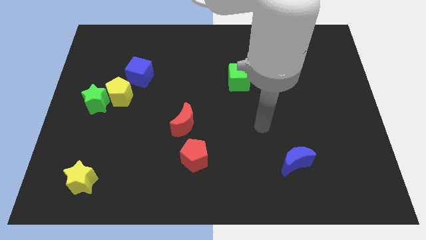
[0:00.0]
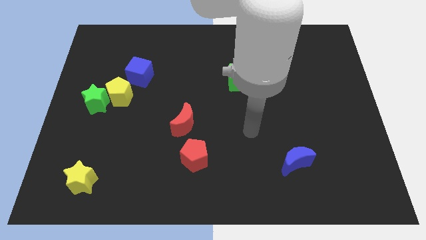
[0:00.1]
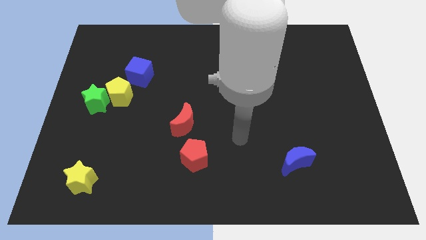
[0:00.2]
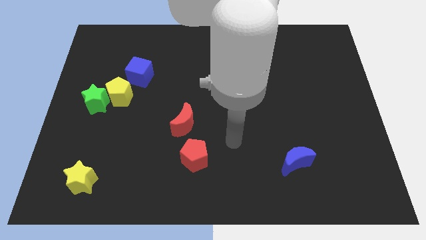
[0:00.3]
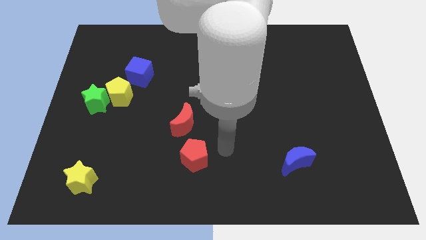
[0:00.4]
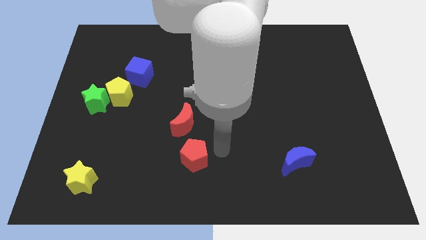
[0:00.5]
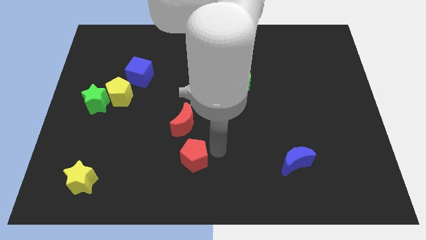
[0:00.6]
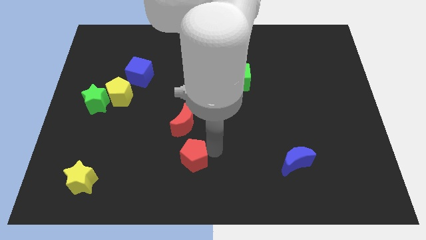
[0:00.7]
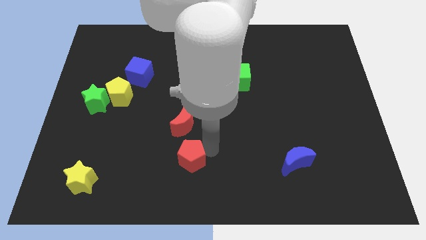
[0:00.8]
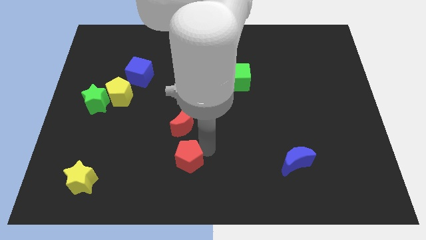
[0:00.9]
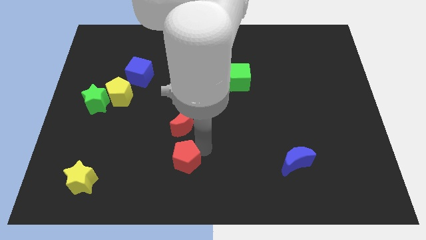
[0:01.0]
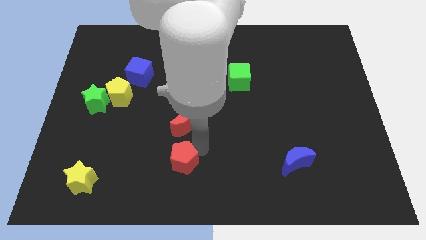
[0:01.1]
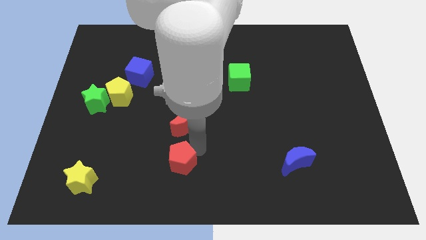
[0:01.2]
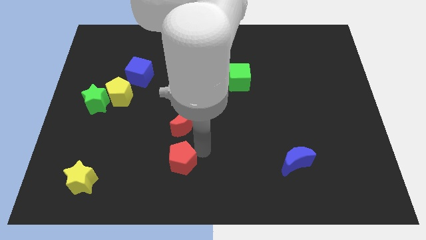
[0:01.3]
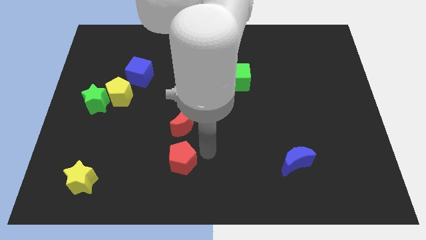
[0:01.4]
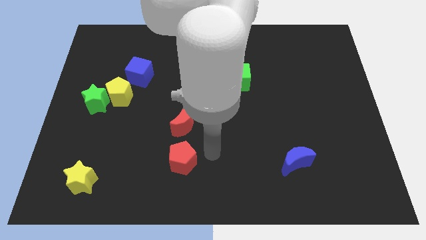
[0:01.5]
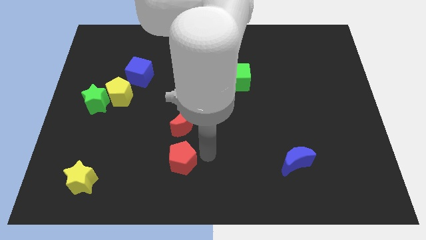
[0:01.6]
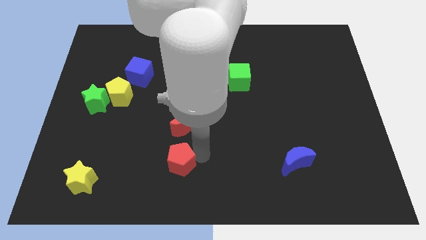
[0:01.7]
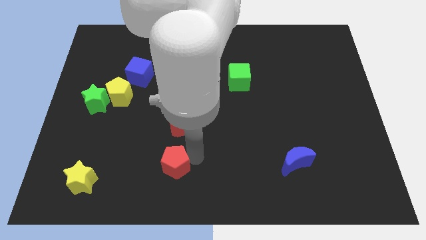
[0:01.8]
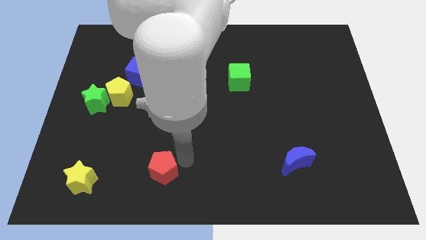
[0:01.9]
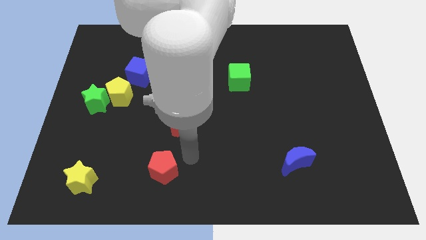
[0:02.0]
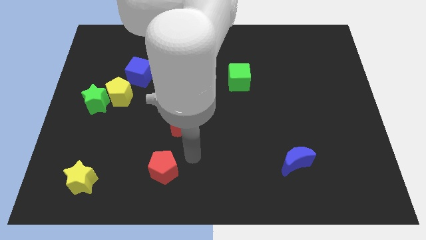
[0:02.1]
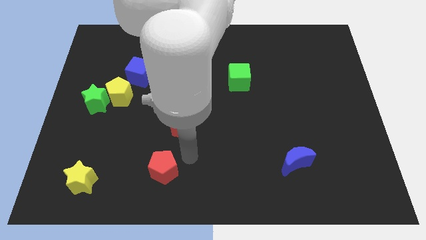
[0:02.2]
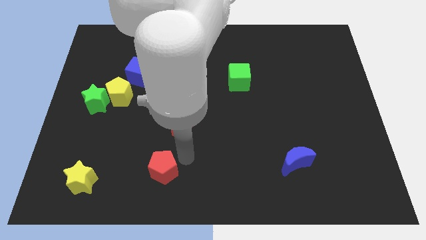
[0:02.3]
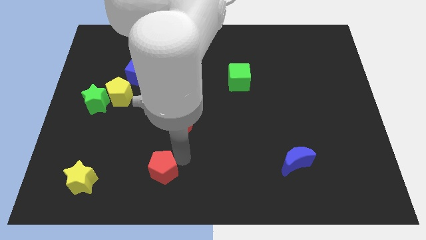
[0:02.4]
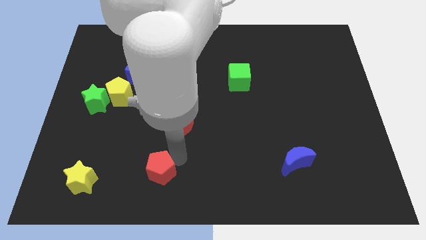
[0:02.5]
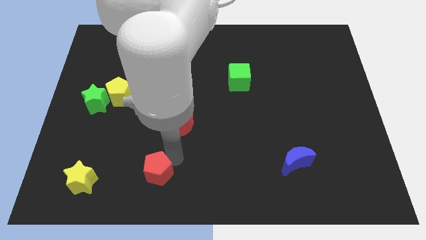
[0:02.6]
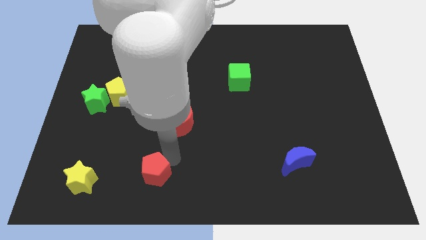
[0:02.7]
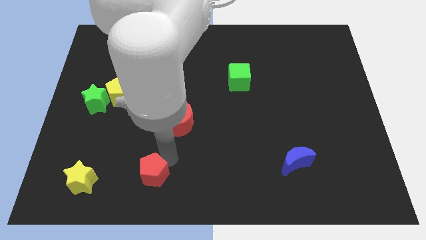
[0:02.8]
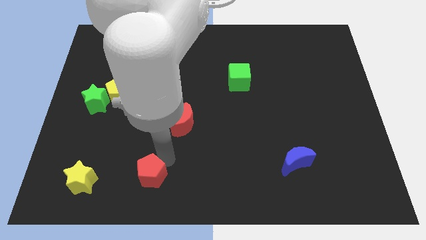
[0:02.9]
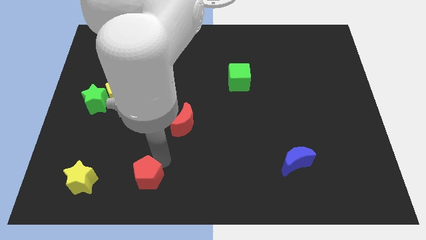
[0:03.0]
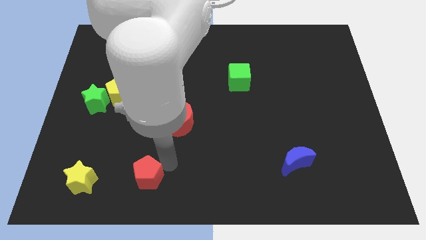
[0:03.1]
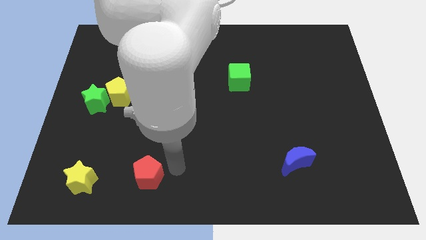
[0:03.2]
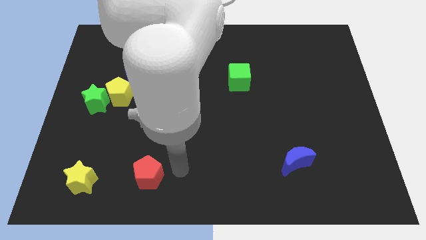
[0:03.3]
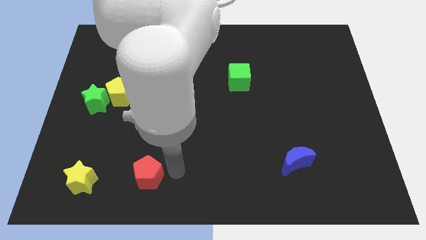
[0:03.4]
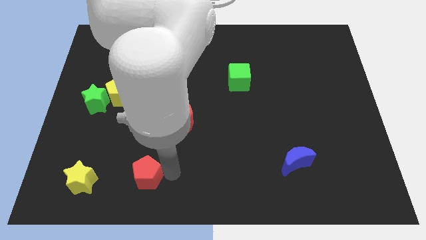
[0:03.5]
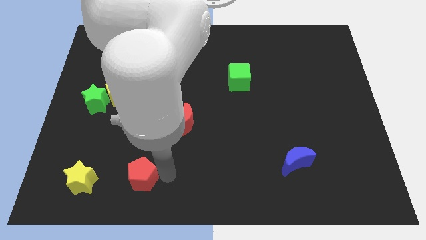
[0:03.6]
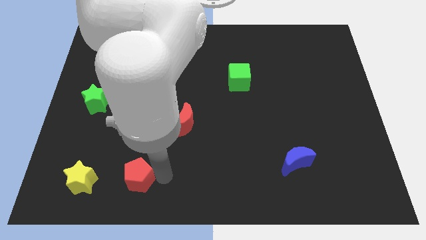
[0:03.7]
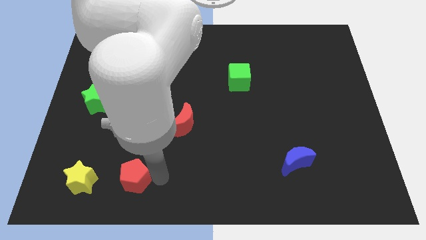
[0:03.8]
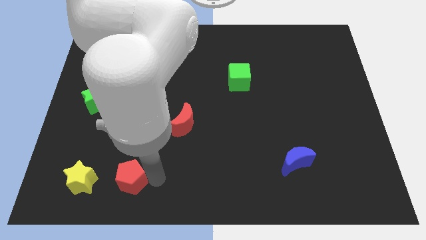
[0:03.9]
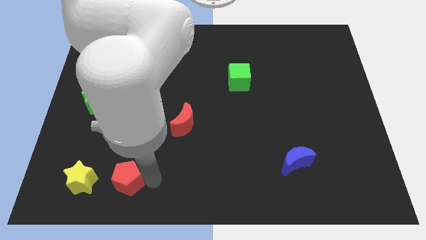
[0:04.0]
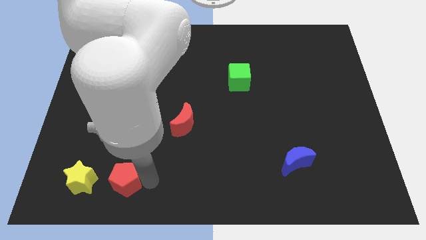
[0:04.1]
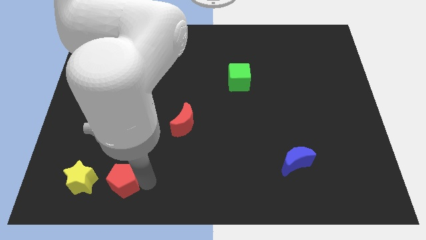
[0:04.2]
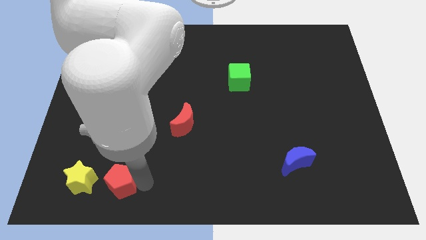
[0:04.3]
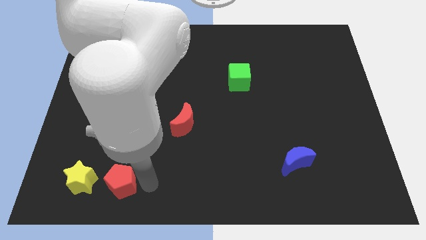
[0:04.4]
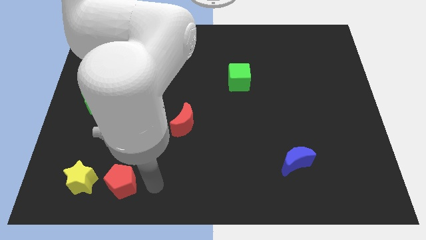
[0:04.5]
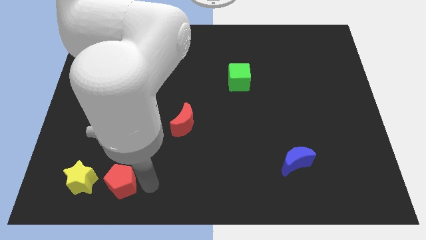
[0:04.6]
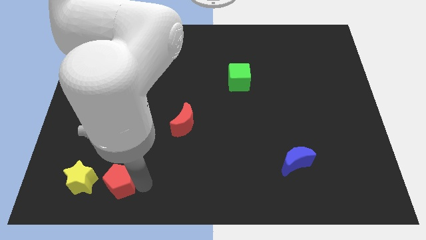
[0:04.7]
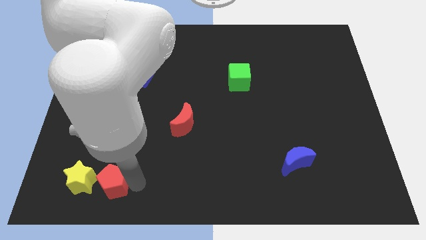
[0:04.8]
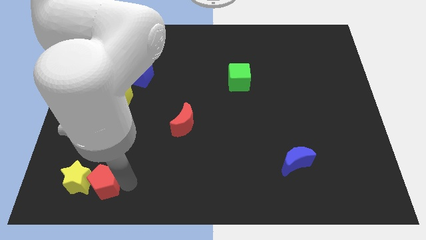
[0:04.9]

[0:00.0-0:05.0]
put the red pentagon next to the yellow star

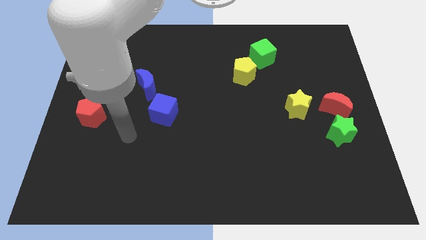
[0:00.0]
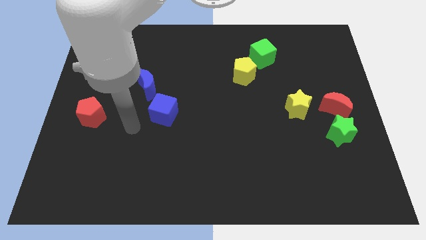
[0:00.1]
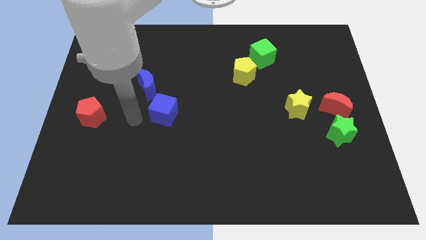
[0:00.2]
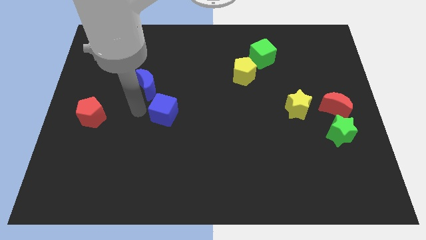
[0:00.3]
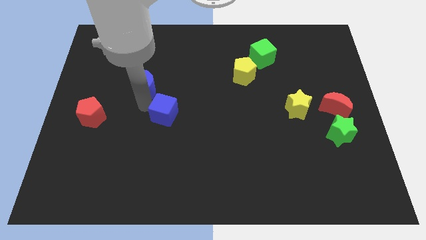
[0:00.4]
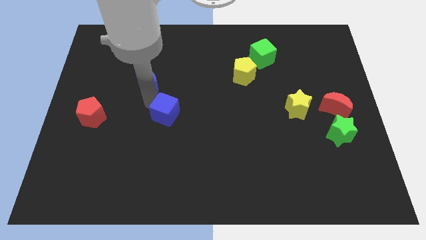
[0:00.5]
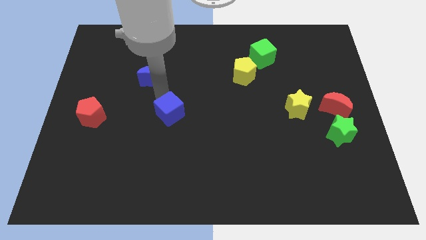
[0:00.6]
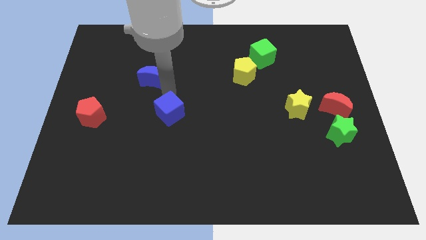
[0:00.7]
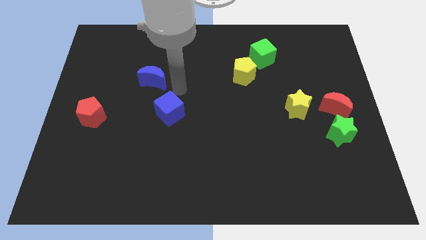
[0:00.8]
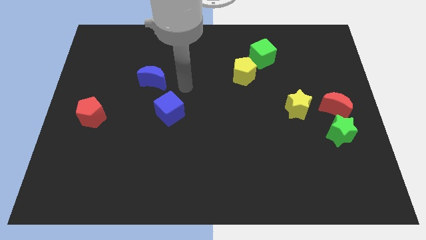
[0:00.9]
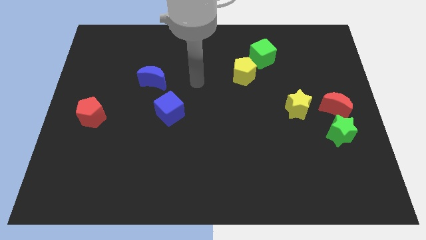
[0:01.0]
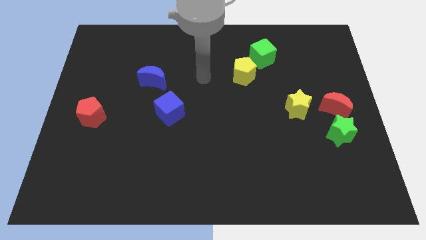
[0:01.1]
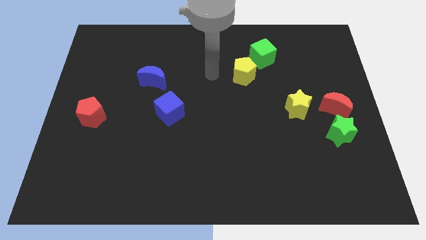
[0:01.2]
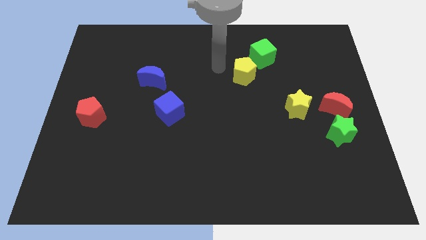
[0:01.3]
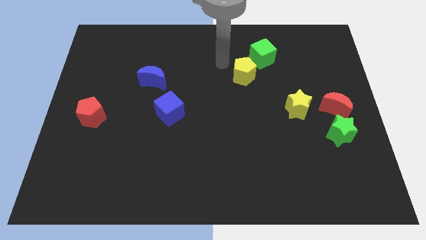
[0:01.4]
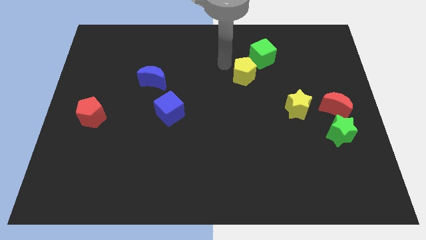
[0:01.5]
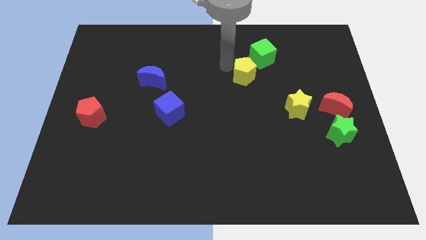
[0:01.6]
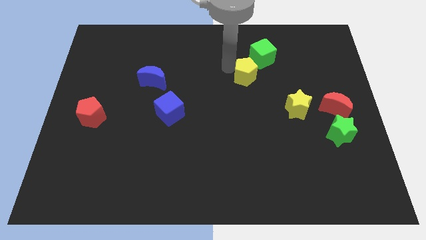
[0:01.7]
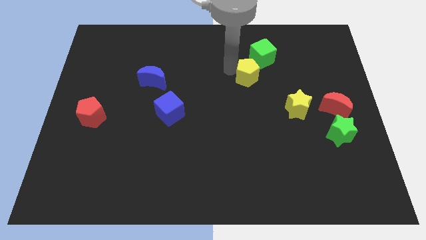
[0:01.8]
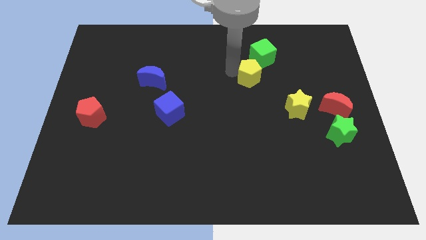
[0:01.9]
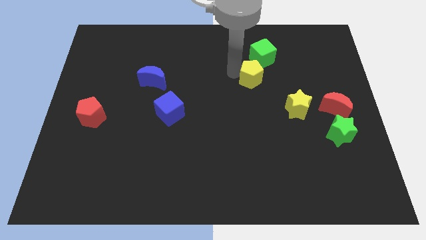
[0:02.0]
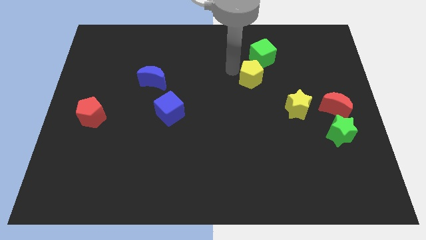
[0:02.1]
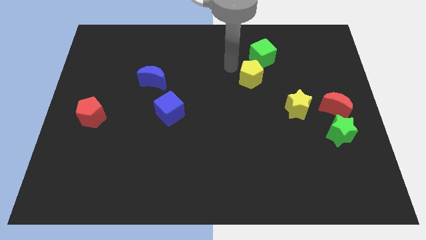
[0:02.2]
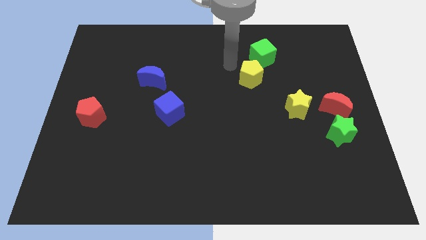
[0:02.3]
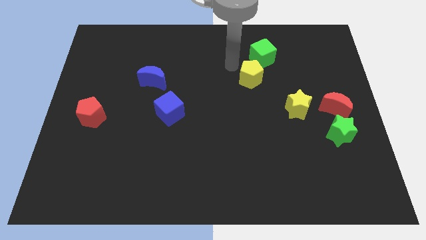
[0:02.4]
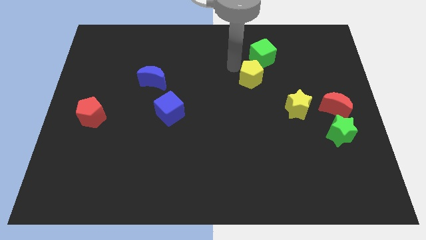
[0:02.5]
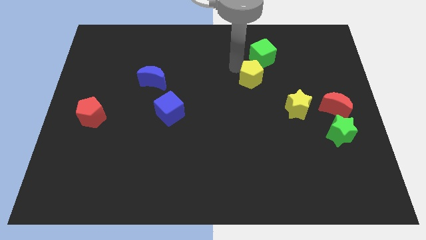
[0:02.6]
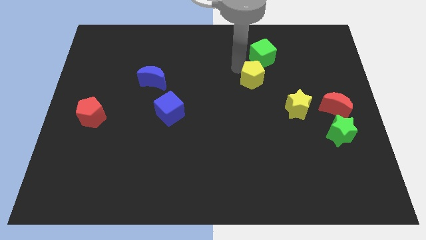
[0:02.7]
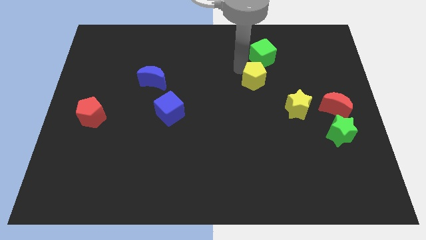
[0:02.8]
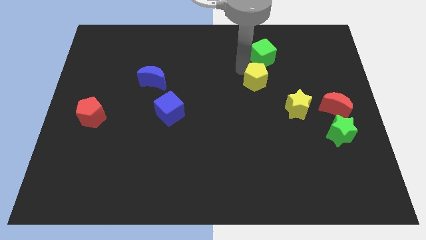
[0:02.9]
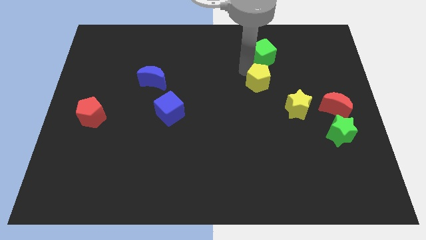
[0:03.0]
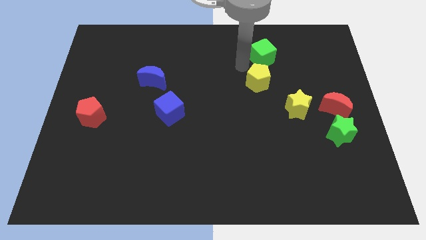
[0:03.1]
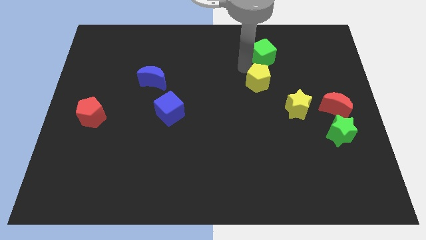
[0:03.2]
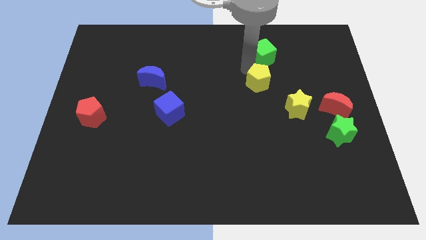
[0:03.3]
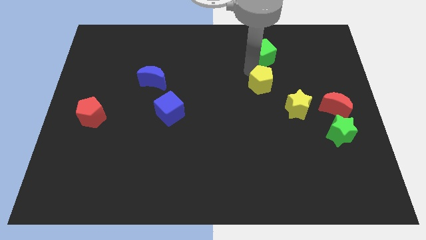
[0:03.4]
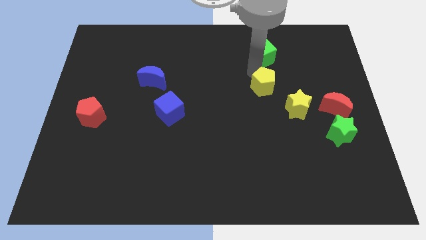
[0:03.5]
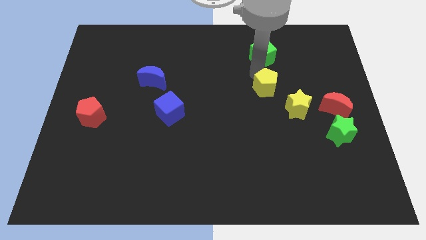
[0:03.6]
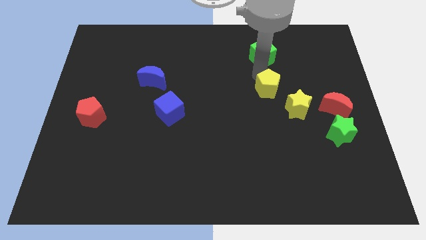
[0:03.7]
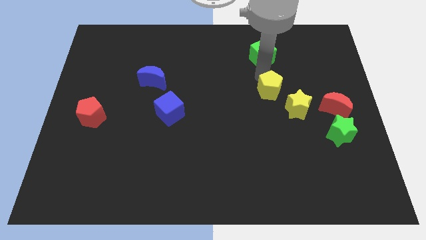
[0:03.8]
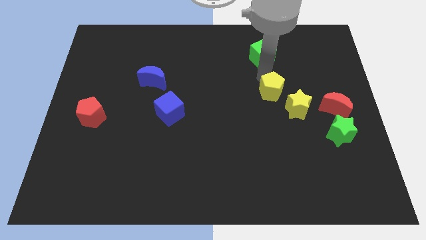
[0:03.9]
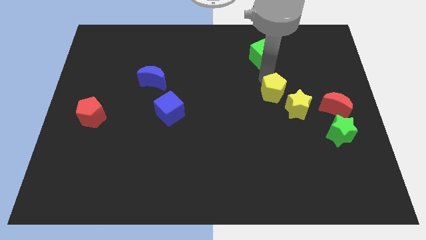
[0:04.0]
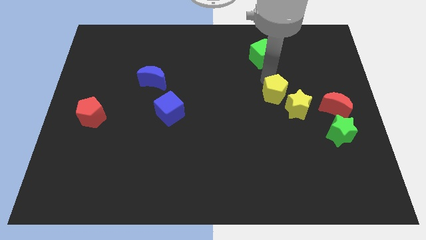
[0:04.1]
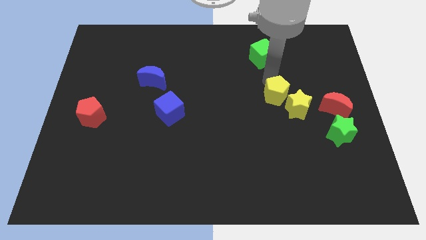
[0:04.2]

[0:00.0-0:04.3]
move the yellow pentagon to the yellow star
